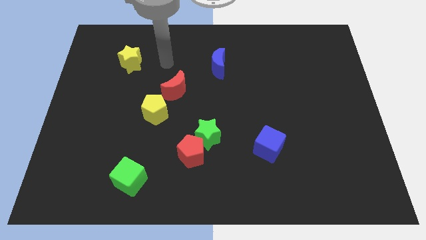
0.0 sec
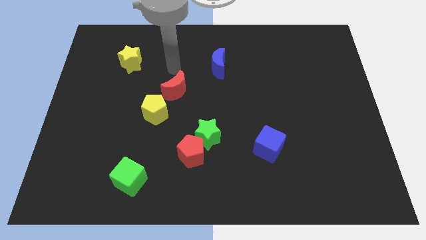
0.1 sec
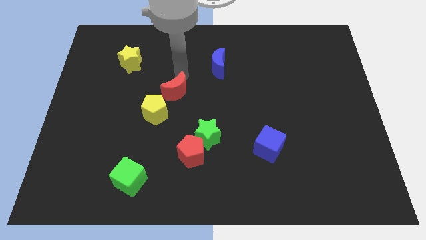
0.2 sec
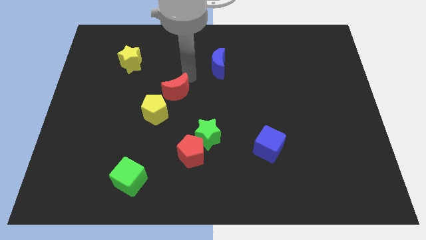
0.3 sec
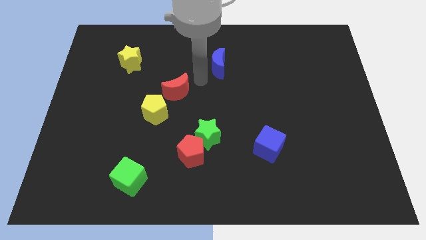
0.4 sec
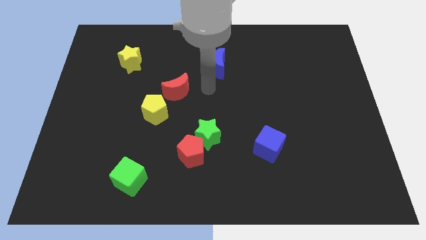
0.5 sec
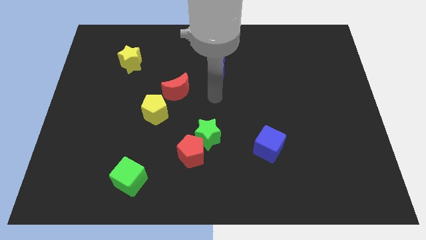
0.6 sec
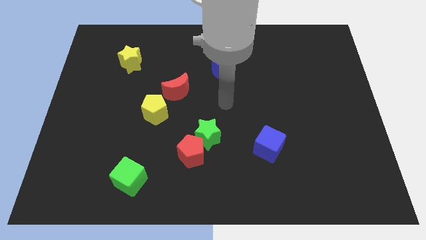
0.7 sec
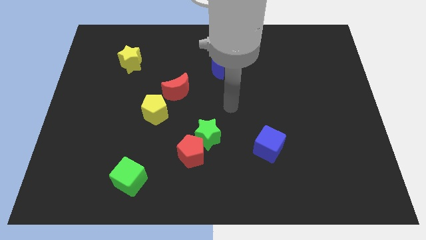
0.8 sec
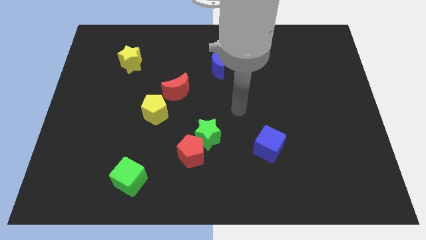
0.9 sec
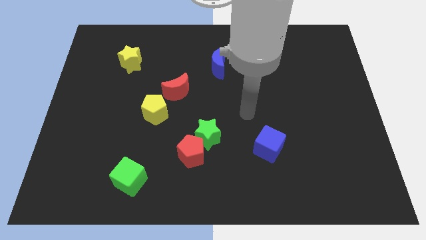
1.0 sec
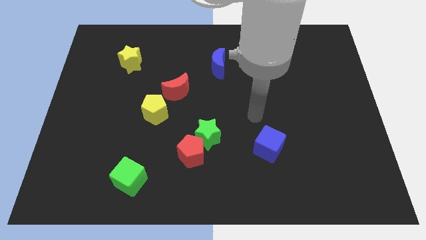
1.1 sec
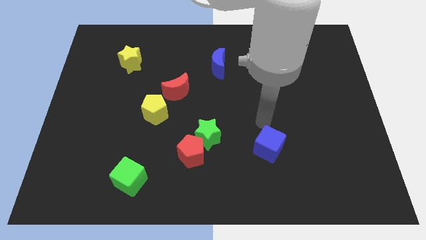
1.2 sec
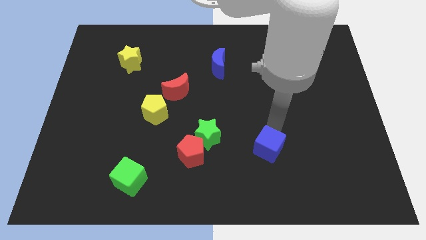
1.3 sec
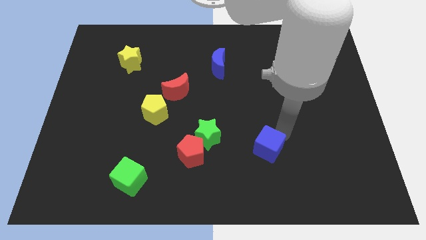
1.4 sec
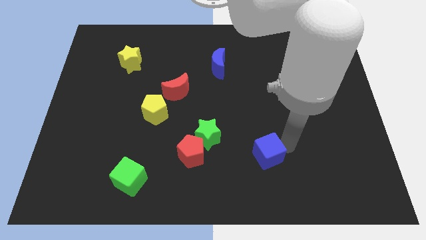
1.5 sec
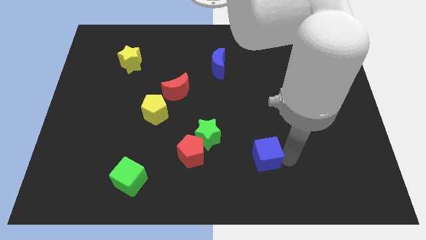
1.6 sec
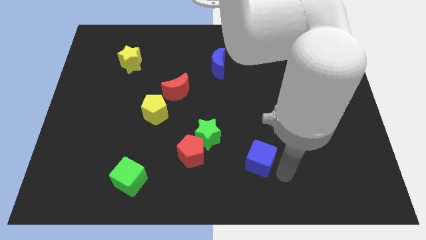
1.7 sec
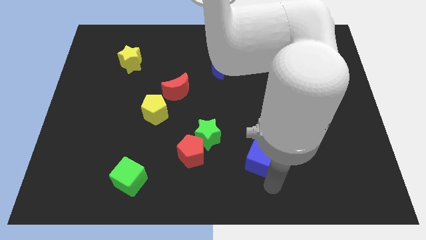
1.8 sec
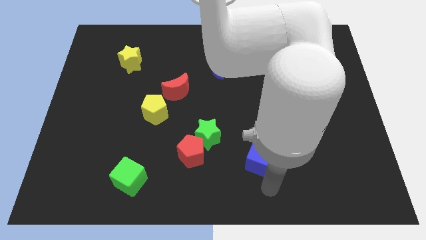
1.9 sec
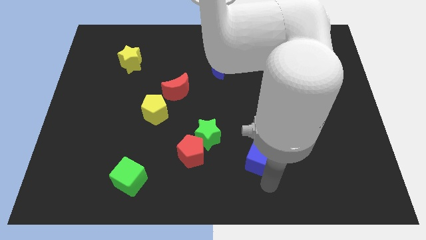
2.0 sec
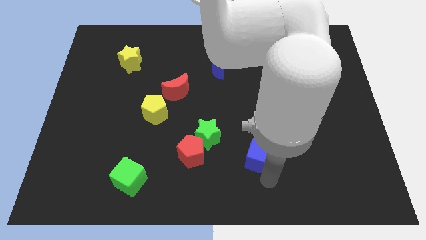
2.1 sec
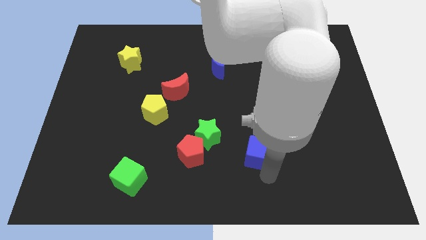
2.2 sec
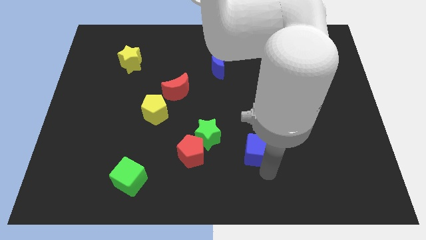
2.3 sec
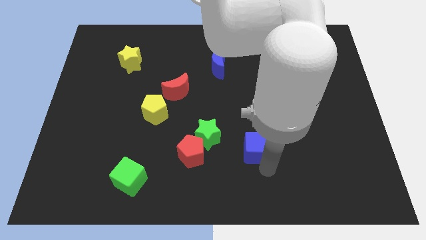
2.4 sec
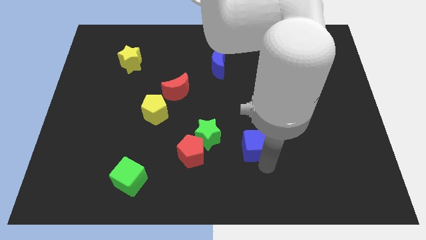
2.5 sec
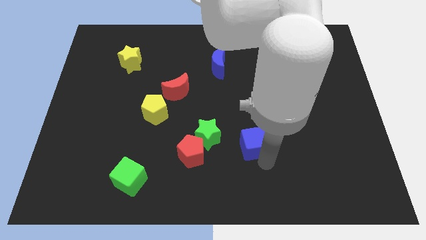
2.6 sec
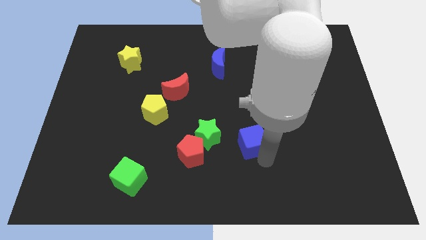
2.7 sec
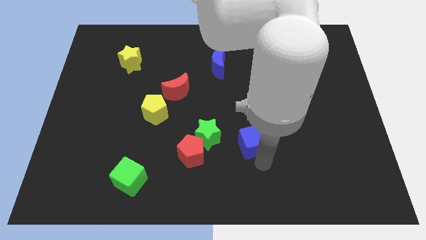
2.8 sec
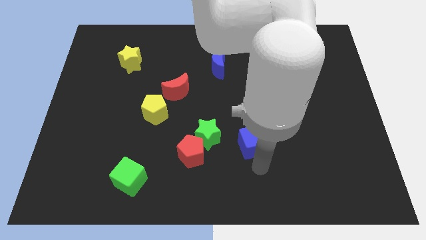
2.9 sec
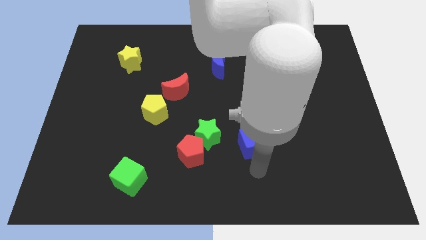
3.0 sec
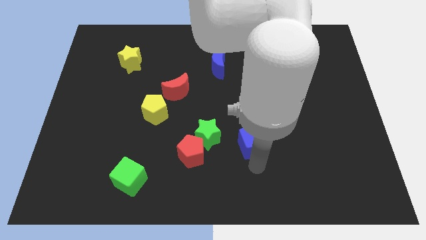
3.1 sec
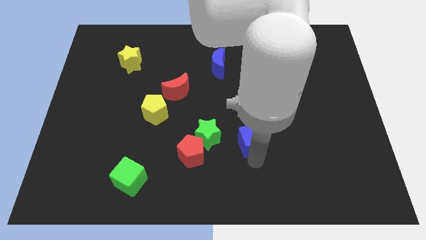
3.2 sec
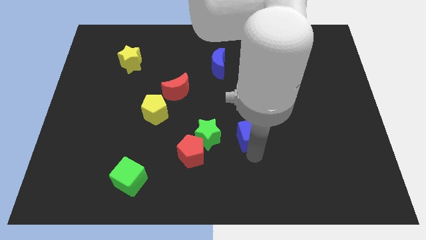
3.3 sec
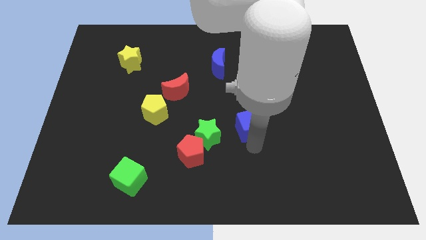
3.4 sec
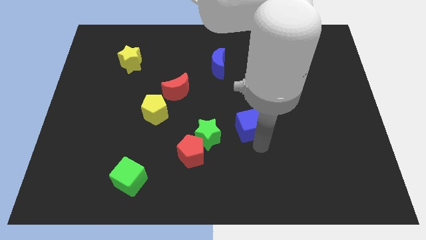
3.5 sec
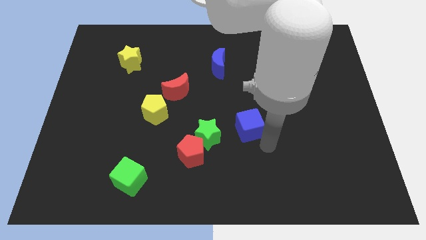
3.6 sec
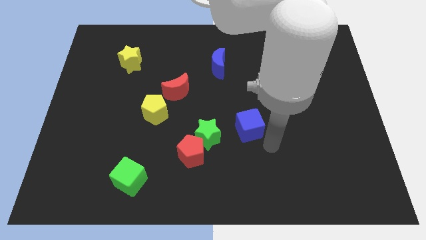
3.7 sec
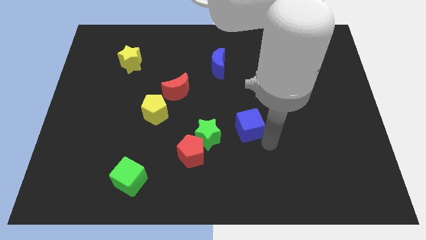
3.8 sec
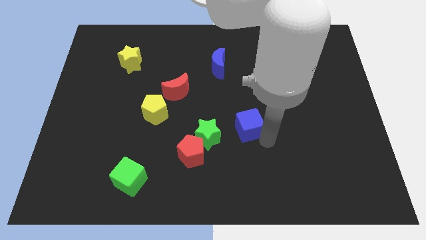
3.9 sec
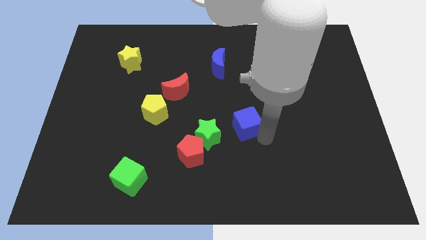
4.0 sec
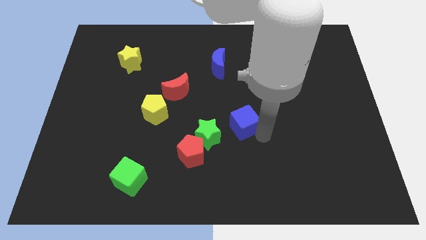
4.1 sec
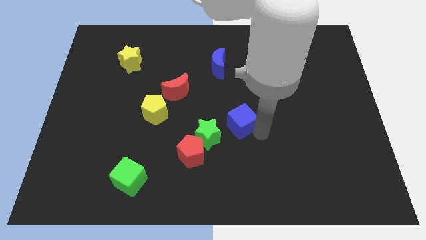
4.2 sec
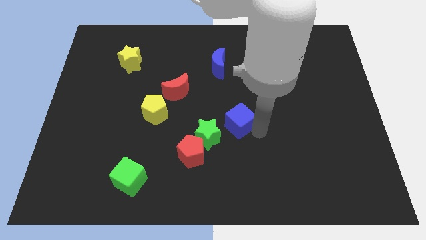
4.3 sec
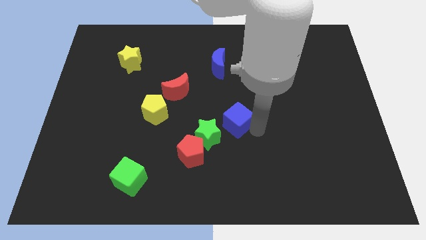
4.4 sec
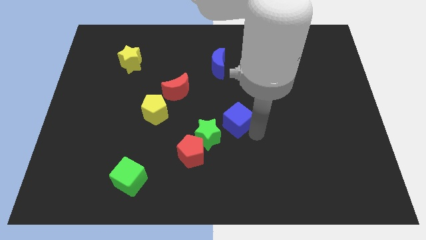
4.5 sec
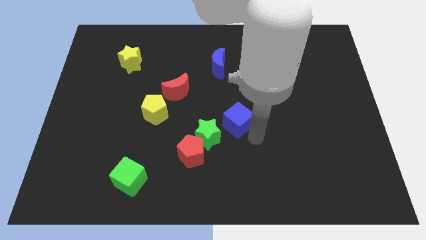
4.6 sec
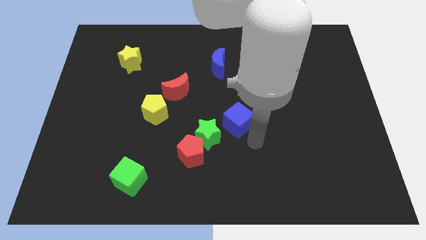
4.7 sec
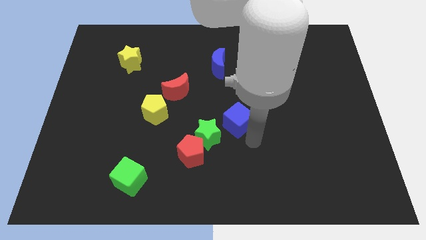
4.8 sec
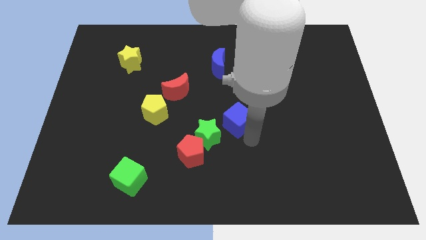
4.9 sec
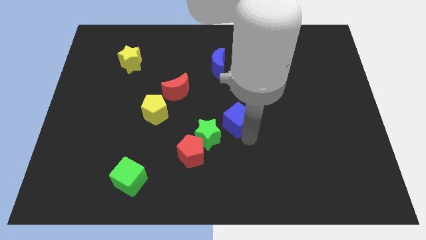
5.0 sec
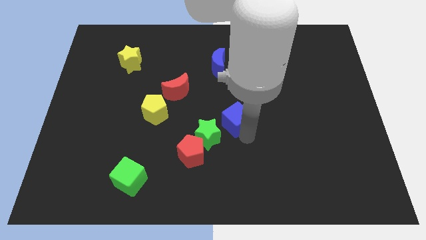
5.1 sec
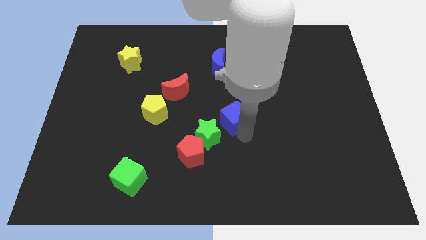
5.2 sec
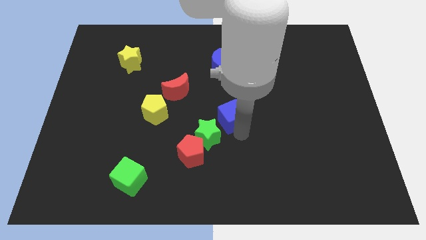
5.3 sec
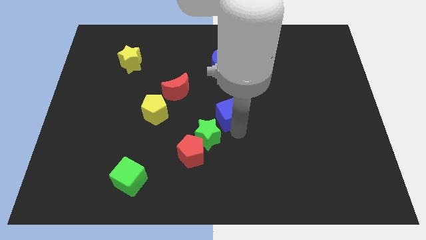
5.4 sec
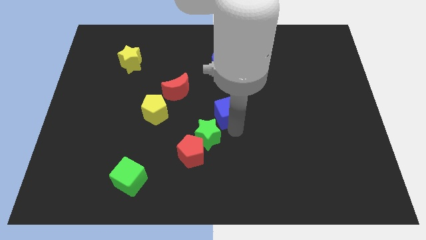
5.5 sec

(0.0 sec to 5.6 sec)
move the blue cube to the bottom side of the blue moon

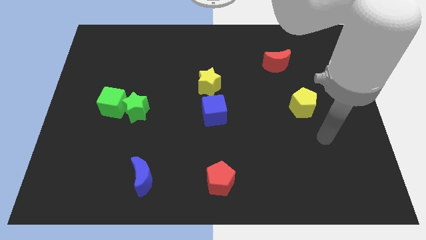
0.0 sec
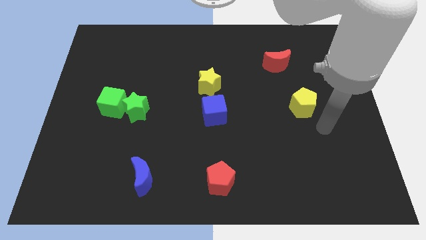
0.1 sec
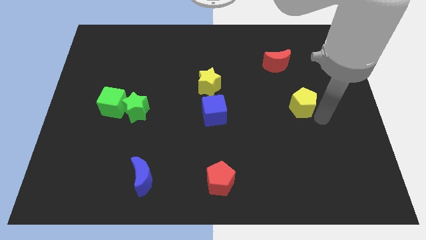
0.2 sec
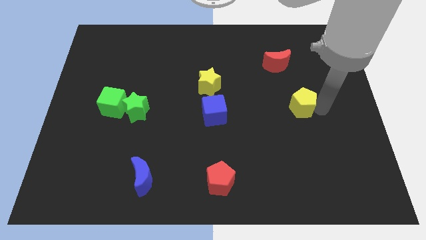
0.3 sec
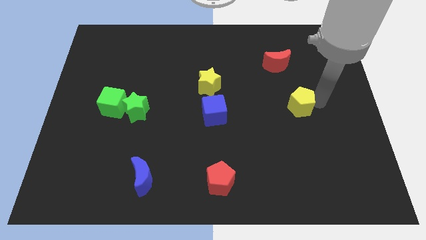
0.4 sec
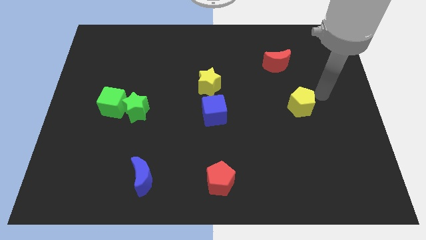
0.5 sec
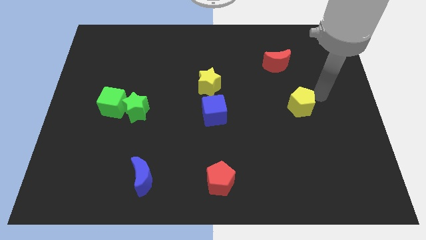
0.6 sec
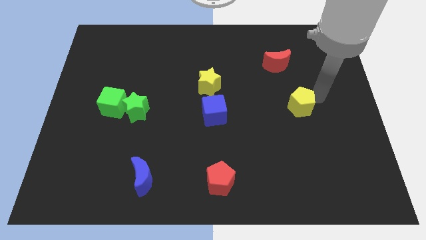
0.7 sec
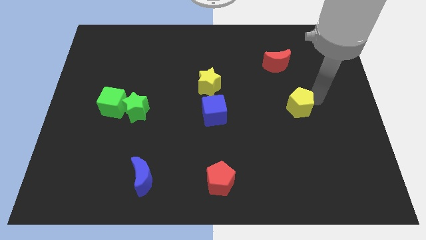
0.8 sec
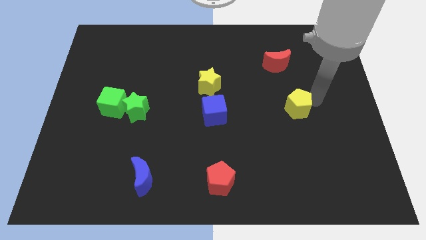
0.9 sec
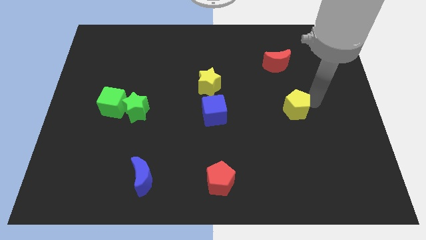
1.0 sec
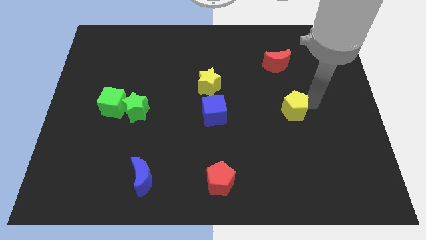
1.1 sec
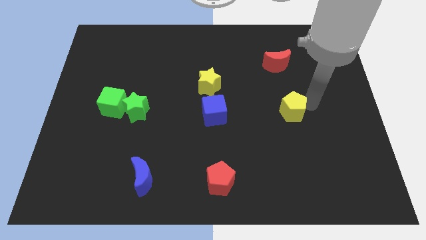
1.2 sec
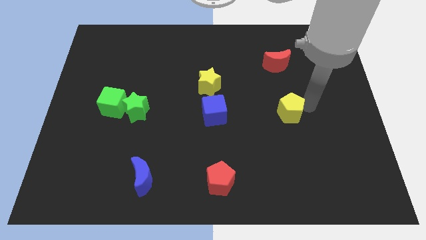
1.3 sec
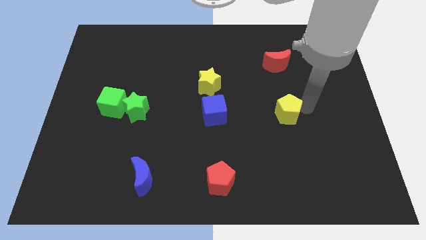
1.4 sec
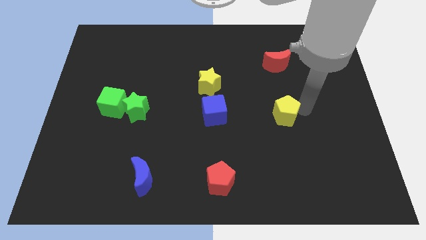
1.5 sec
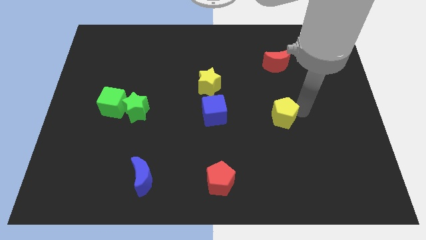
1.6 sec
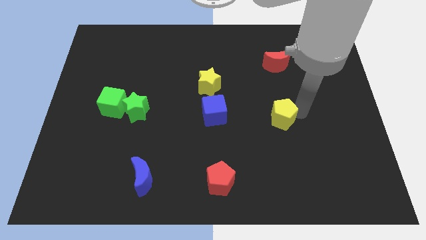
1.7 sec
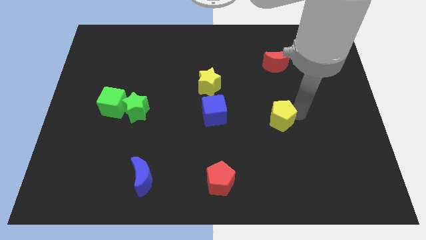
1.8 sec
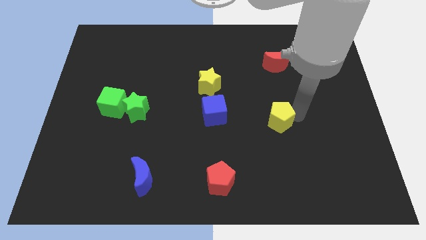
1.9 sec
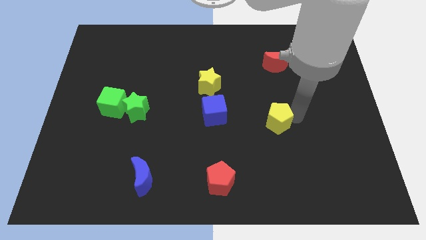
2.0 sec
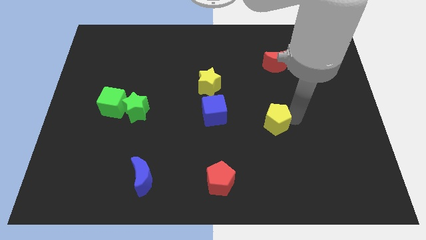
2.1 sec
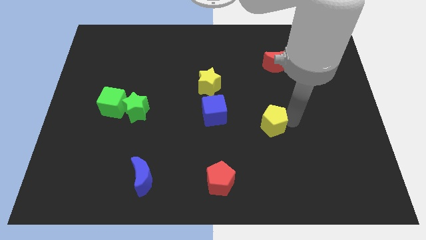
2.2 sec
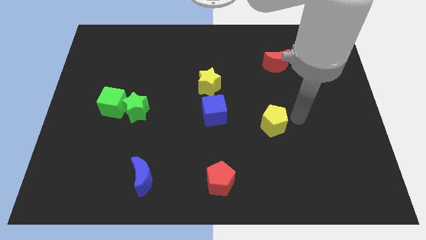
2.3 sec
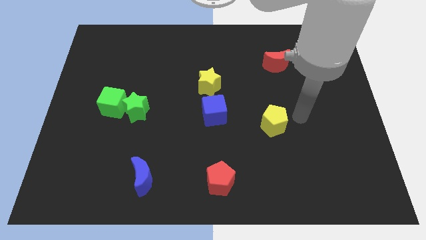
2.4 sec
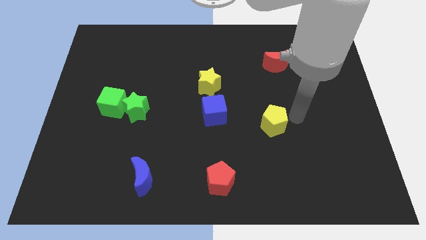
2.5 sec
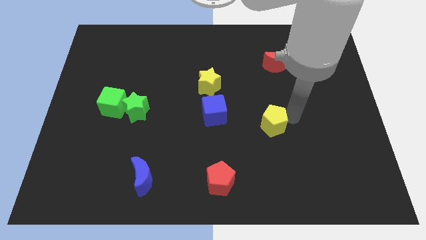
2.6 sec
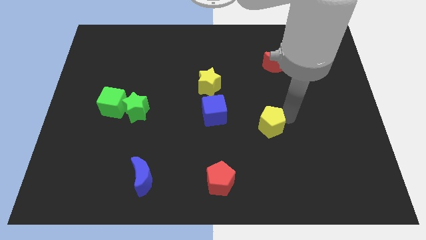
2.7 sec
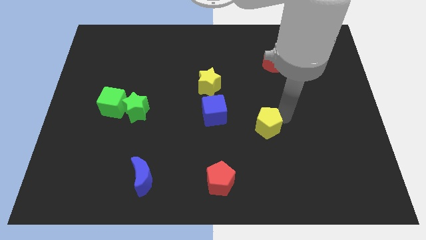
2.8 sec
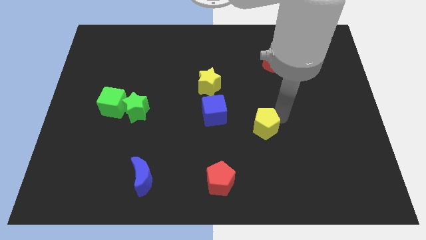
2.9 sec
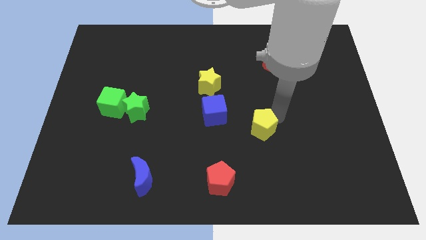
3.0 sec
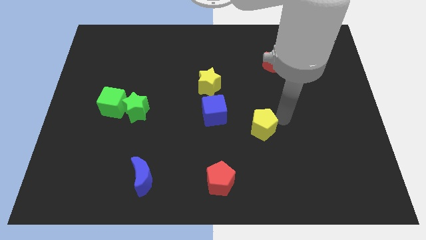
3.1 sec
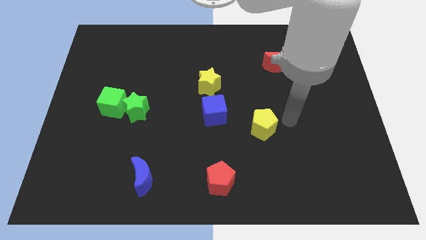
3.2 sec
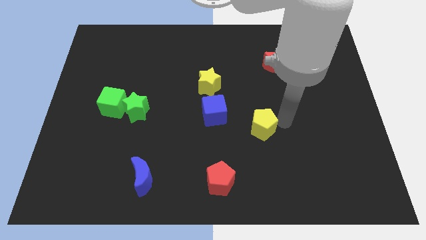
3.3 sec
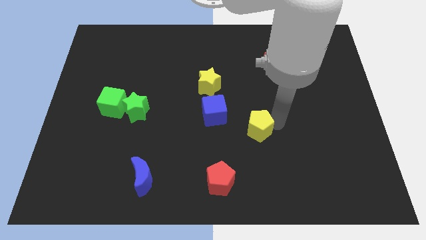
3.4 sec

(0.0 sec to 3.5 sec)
move the yellow pentagon to the bottom right side of the blue cube
